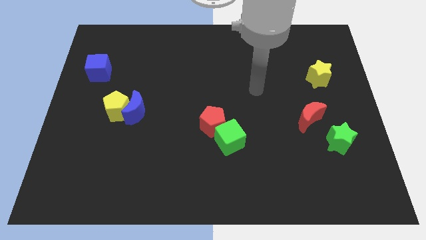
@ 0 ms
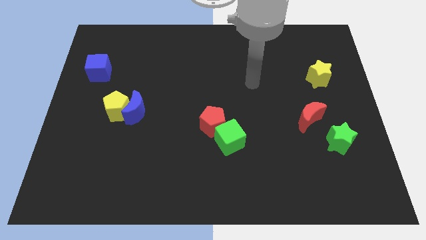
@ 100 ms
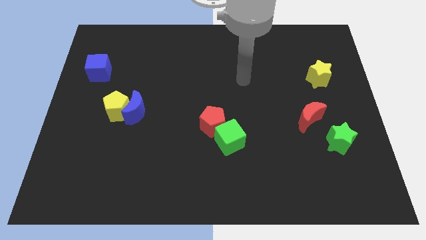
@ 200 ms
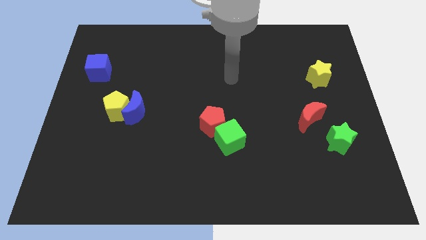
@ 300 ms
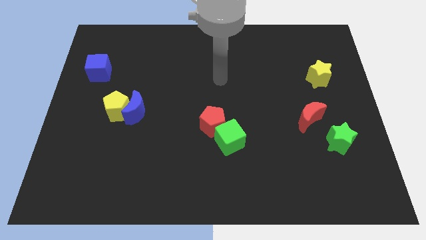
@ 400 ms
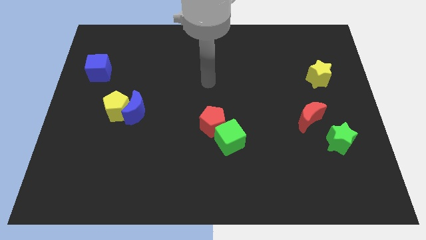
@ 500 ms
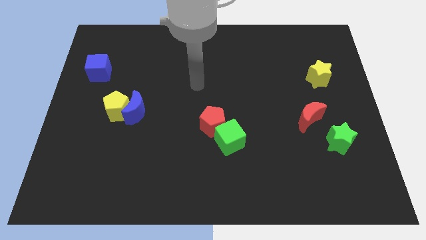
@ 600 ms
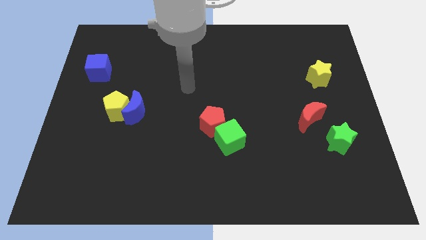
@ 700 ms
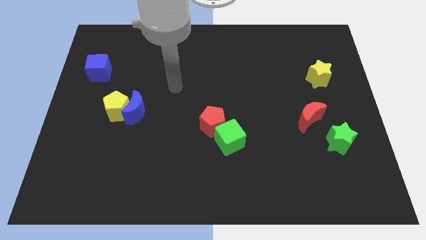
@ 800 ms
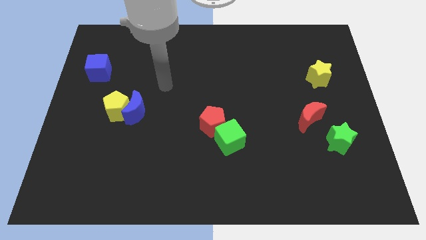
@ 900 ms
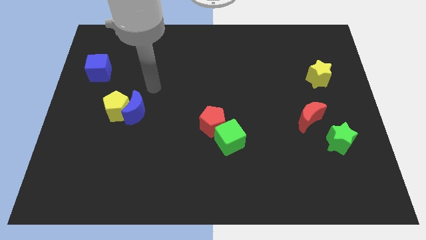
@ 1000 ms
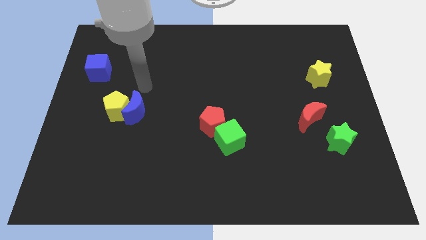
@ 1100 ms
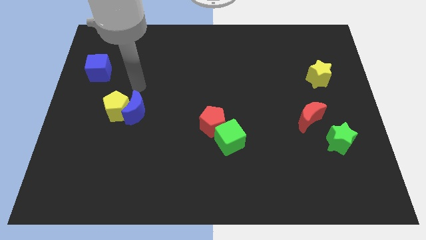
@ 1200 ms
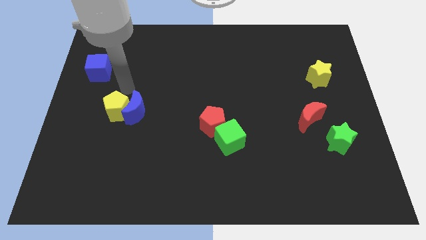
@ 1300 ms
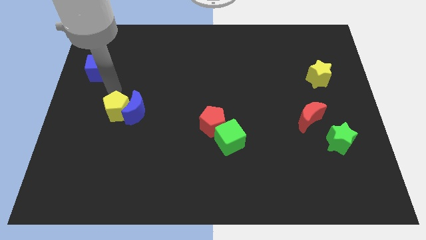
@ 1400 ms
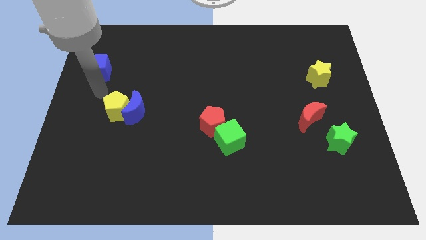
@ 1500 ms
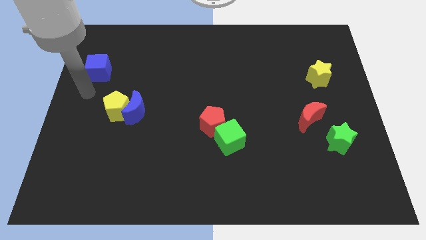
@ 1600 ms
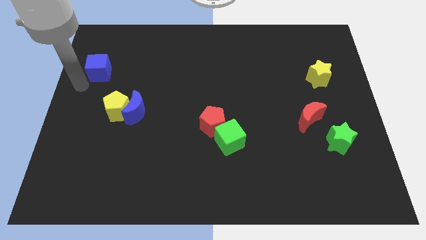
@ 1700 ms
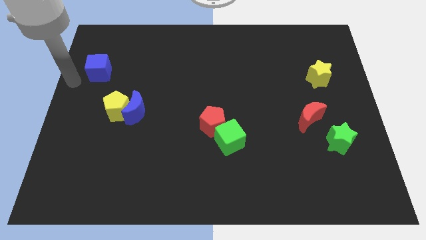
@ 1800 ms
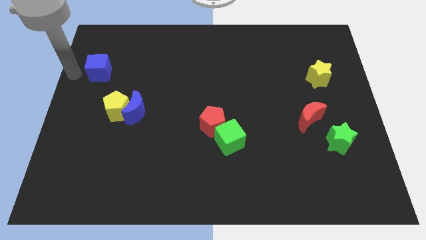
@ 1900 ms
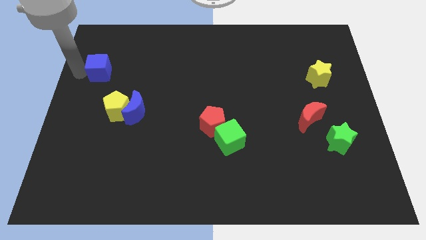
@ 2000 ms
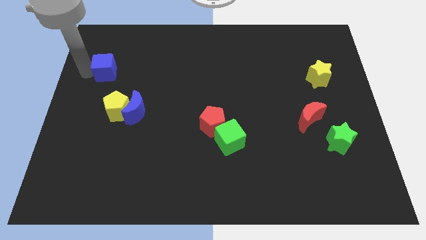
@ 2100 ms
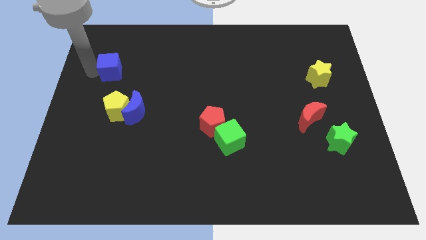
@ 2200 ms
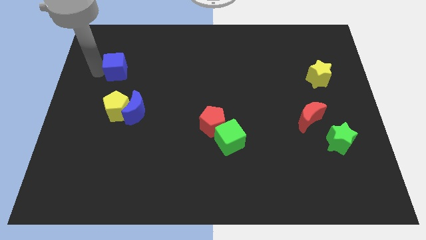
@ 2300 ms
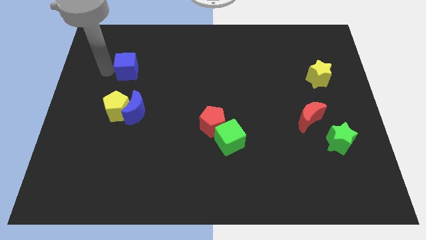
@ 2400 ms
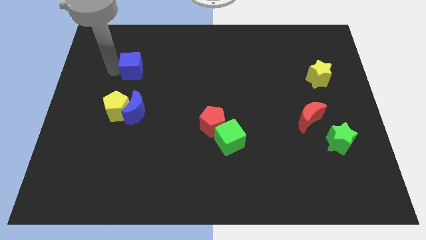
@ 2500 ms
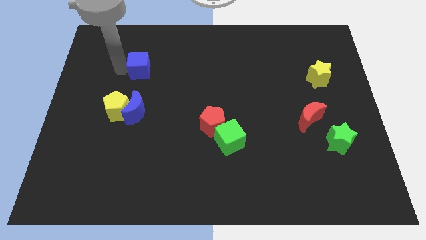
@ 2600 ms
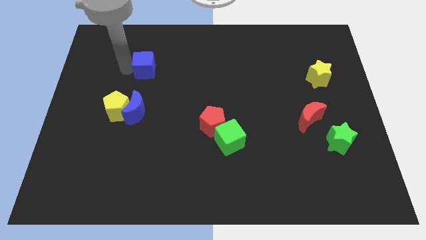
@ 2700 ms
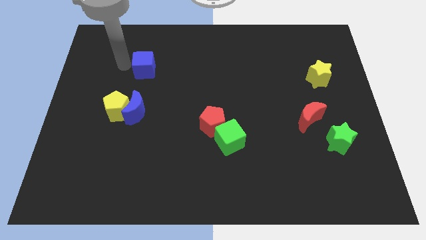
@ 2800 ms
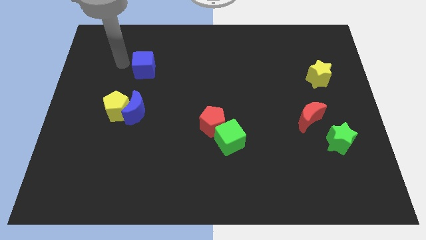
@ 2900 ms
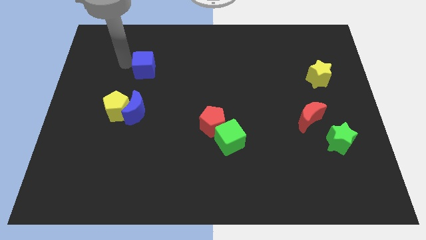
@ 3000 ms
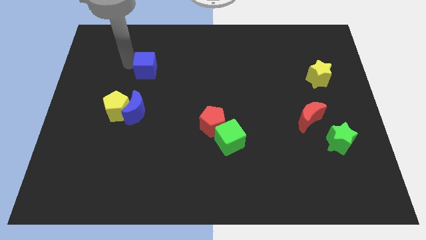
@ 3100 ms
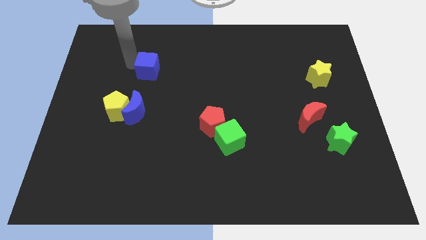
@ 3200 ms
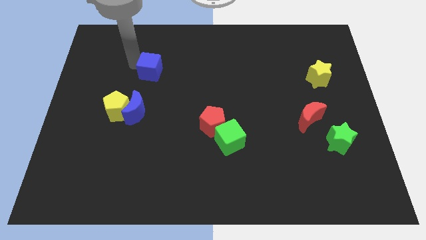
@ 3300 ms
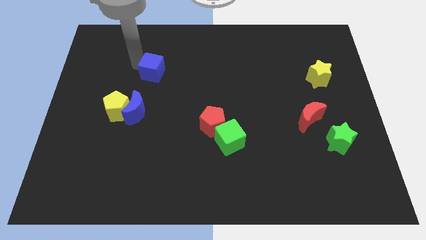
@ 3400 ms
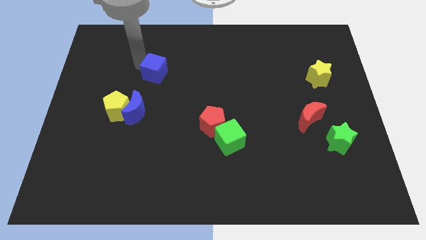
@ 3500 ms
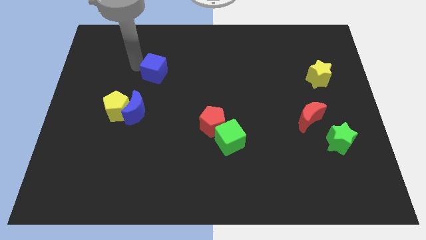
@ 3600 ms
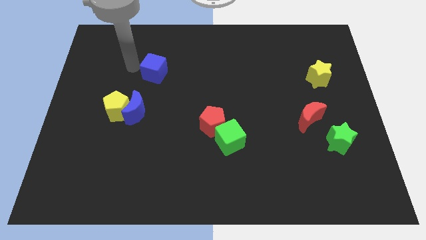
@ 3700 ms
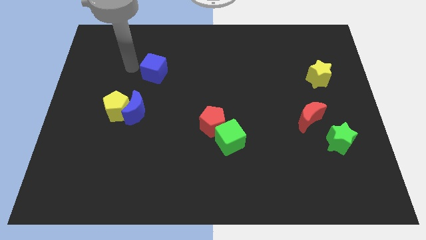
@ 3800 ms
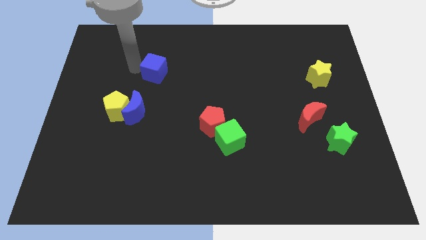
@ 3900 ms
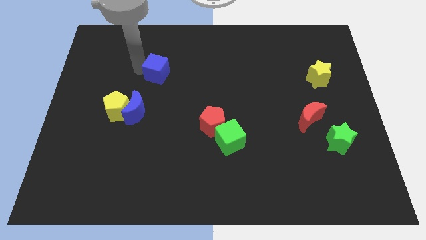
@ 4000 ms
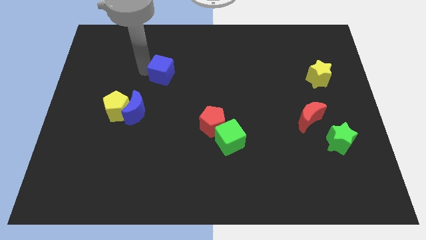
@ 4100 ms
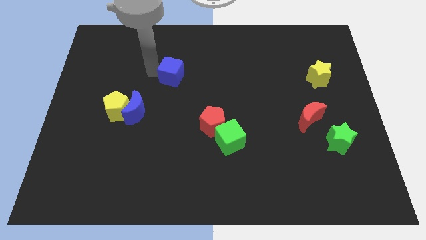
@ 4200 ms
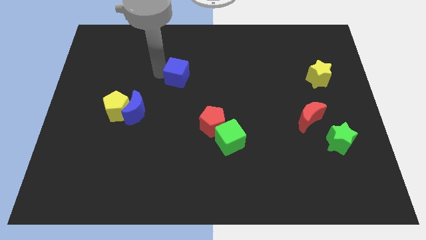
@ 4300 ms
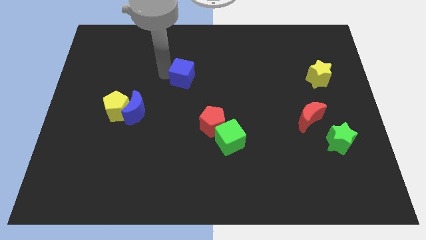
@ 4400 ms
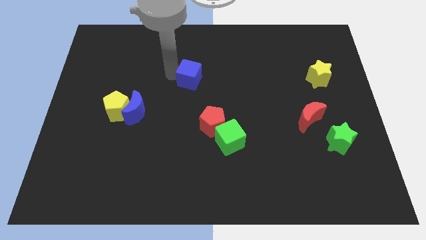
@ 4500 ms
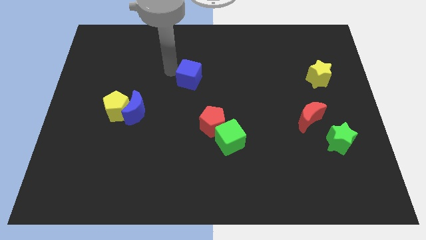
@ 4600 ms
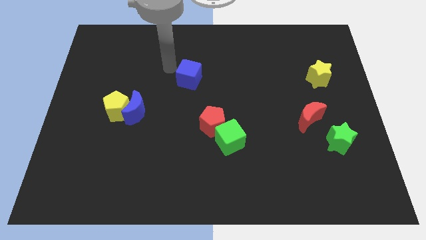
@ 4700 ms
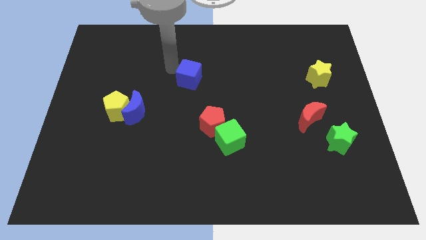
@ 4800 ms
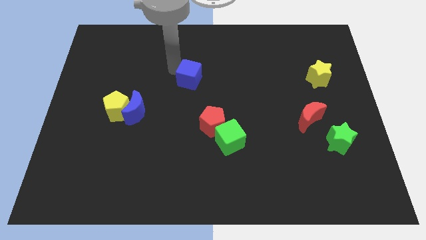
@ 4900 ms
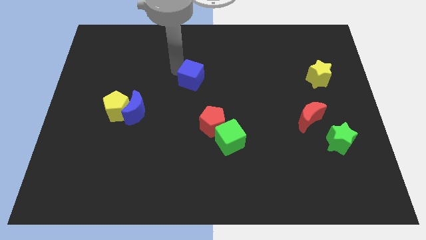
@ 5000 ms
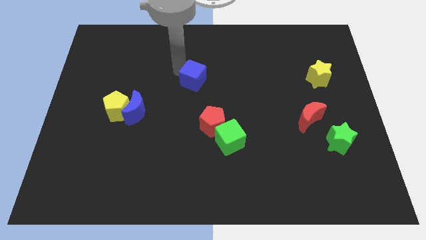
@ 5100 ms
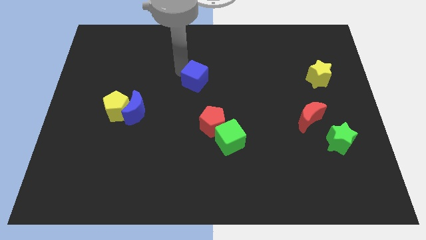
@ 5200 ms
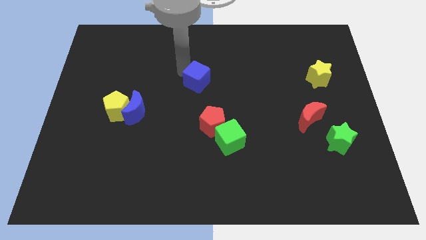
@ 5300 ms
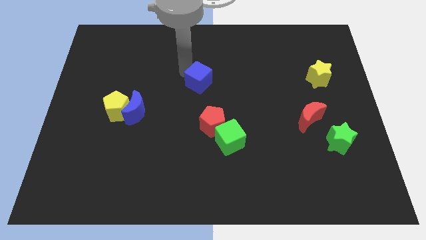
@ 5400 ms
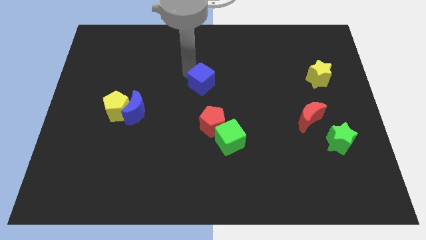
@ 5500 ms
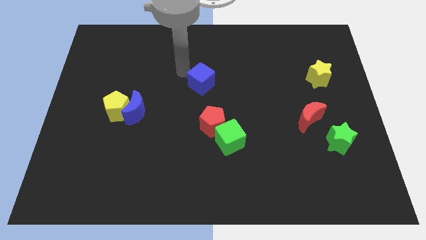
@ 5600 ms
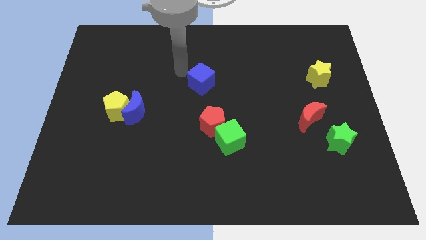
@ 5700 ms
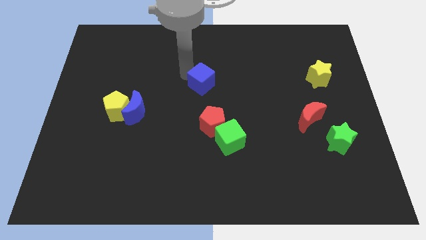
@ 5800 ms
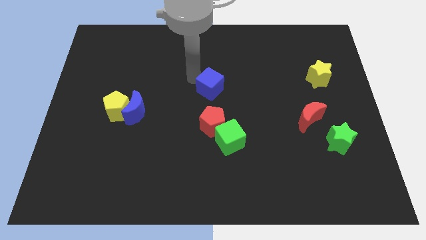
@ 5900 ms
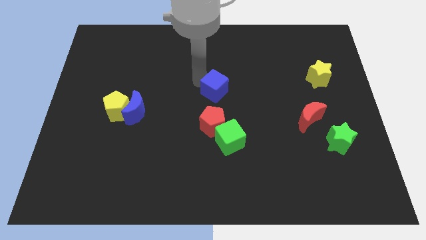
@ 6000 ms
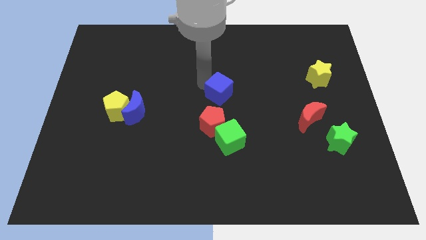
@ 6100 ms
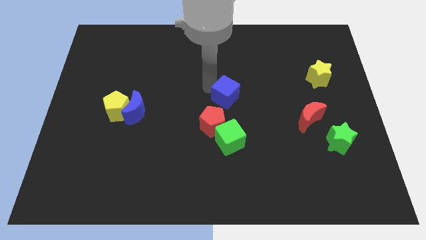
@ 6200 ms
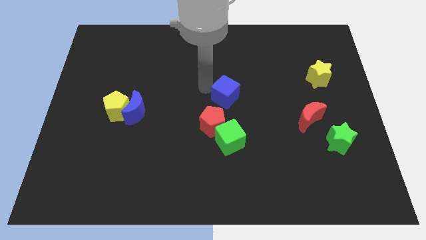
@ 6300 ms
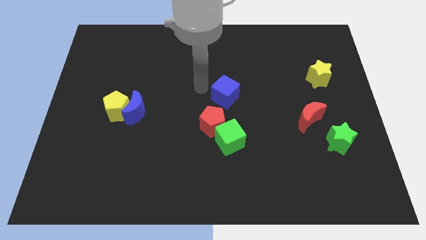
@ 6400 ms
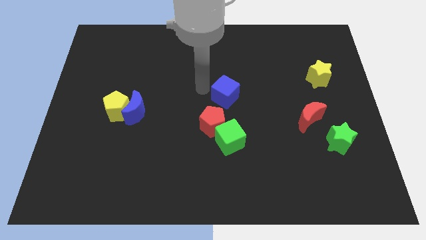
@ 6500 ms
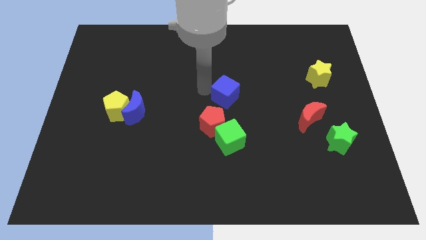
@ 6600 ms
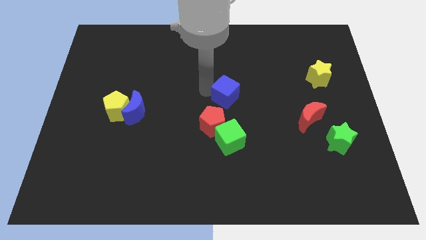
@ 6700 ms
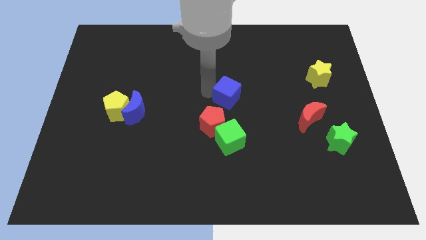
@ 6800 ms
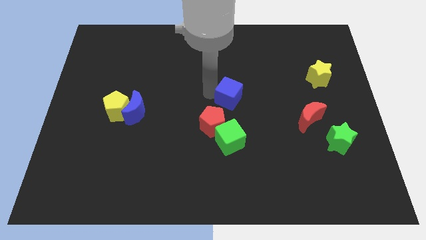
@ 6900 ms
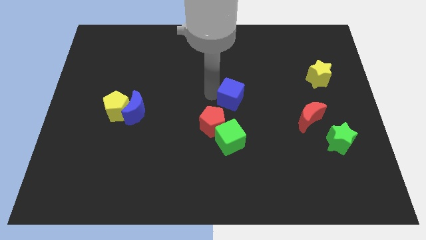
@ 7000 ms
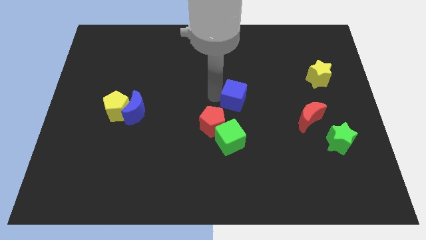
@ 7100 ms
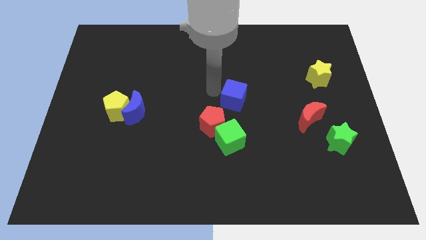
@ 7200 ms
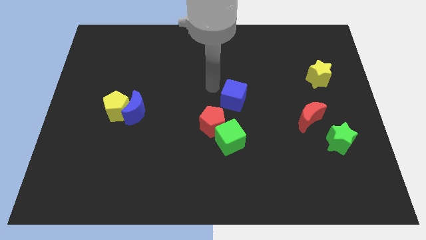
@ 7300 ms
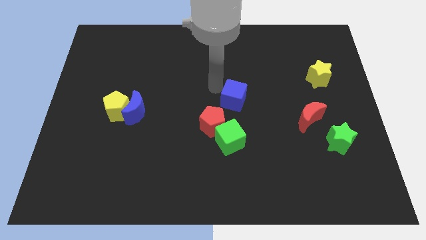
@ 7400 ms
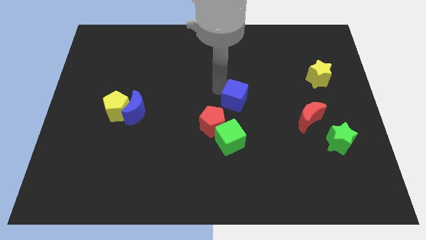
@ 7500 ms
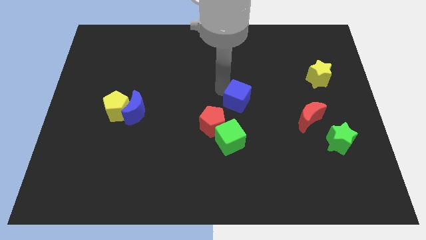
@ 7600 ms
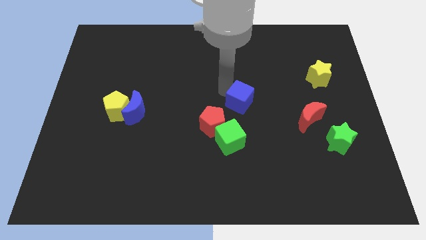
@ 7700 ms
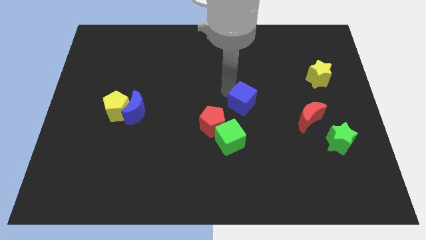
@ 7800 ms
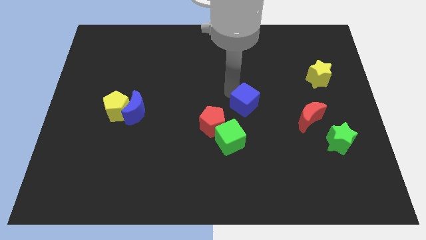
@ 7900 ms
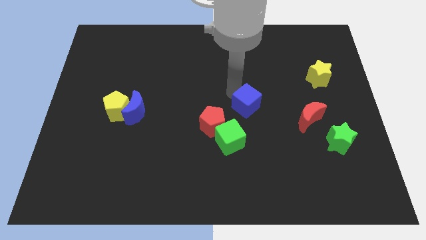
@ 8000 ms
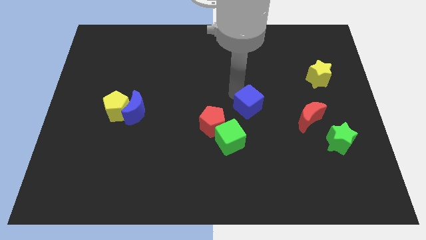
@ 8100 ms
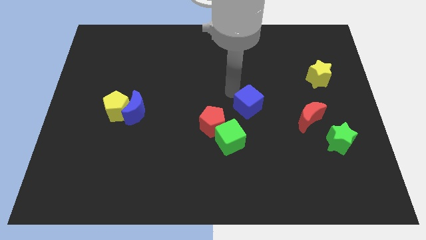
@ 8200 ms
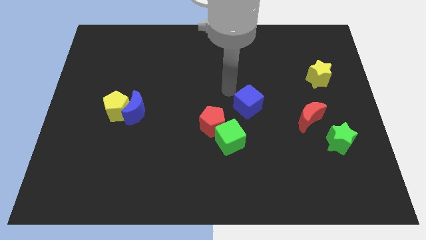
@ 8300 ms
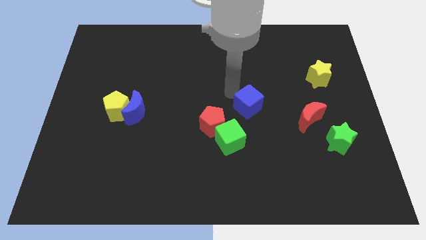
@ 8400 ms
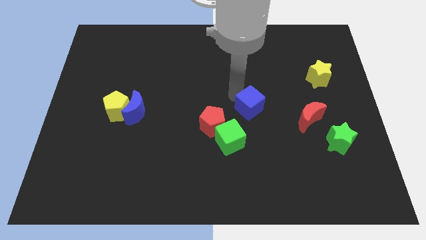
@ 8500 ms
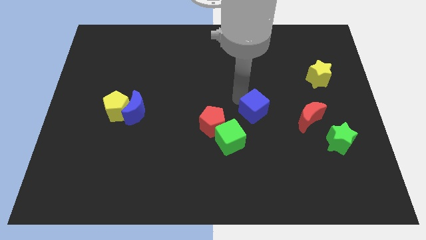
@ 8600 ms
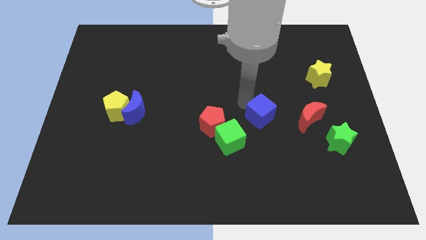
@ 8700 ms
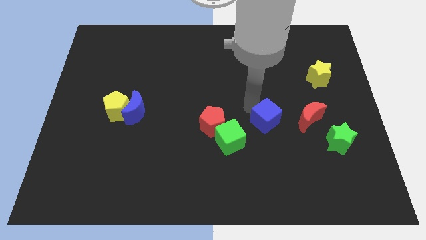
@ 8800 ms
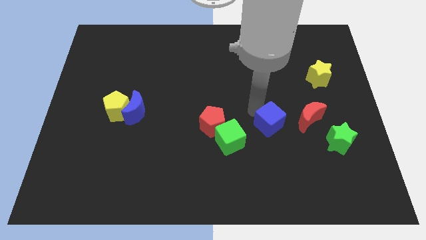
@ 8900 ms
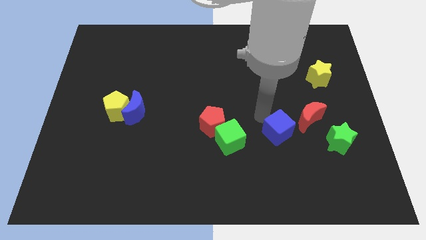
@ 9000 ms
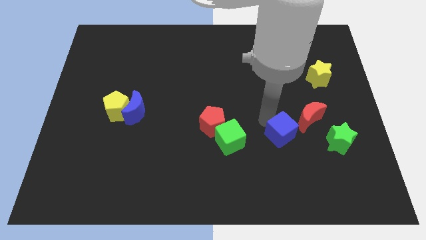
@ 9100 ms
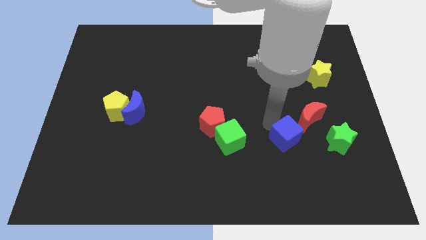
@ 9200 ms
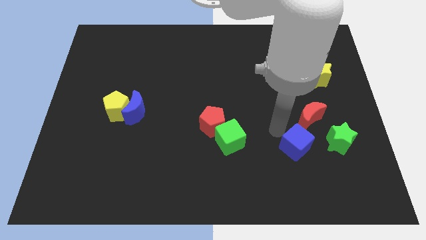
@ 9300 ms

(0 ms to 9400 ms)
push the blue cube to the bottom of the red moon
